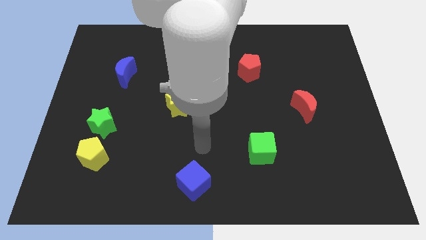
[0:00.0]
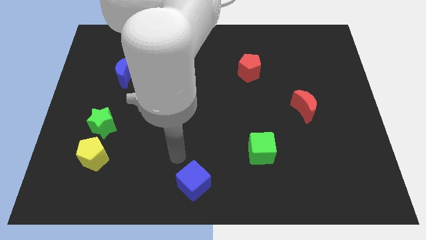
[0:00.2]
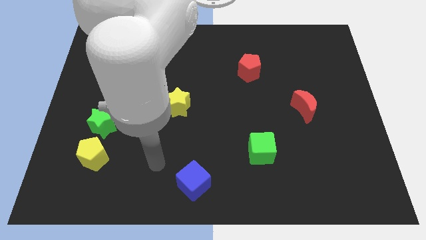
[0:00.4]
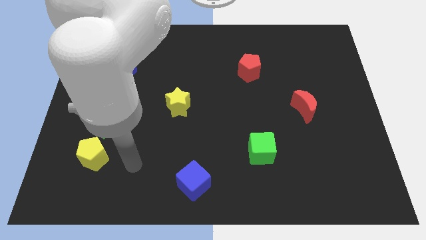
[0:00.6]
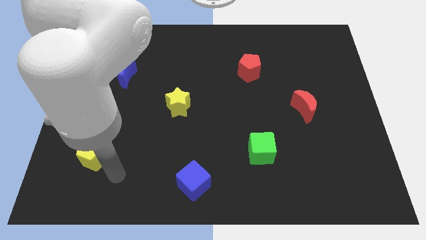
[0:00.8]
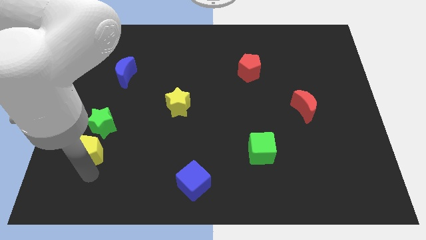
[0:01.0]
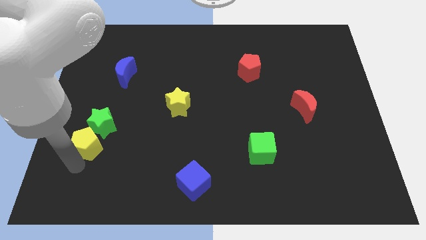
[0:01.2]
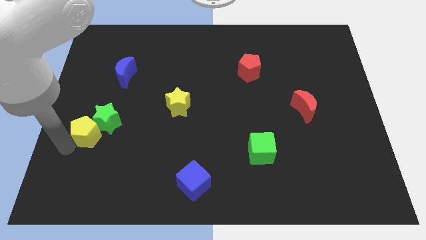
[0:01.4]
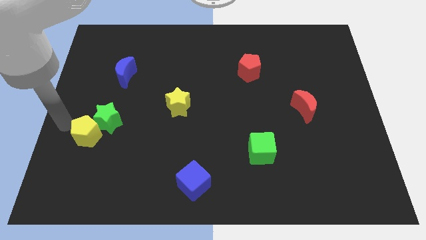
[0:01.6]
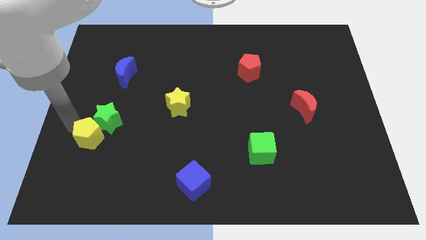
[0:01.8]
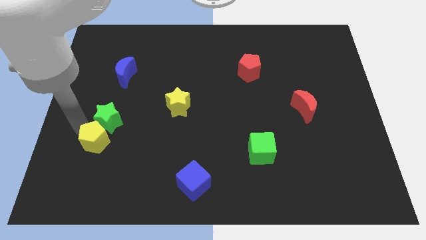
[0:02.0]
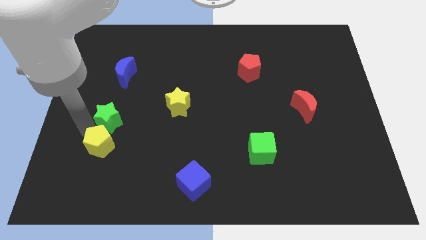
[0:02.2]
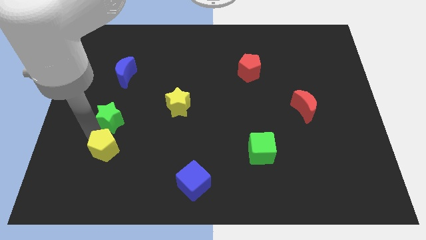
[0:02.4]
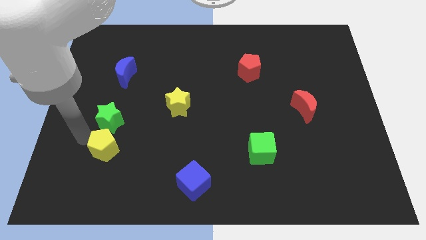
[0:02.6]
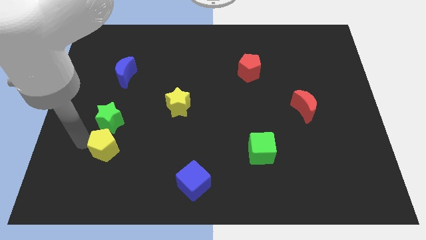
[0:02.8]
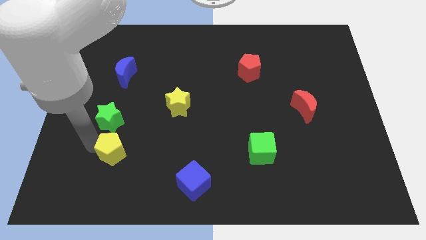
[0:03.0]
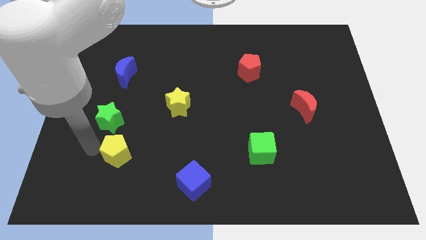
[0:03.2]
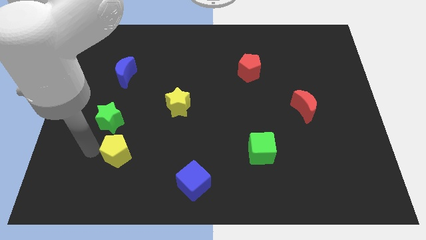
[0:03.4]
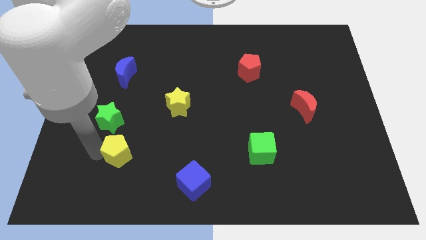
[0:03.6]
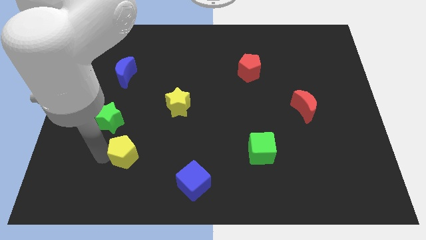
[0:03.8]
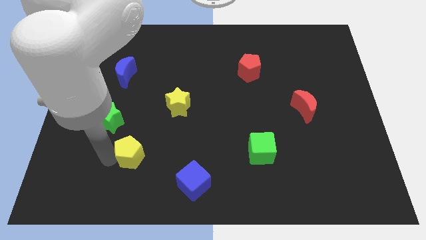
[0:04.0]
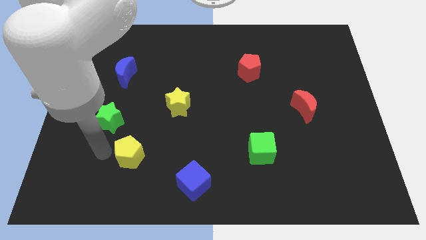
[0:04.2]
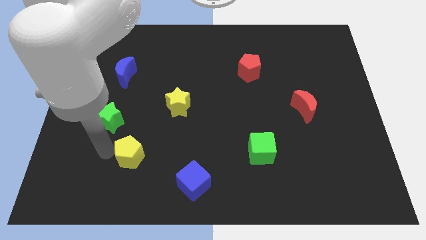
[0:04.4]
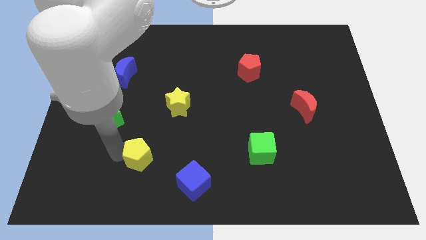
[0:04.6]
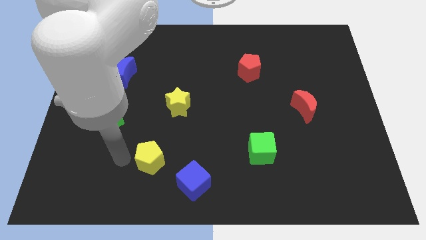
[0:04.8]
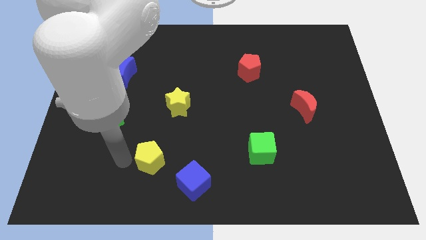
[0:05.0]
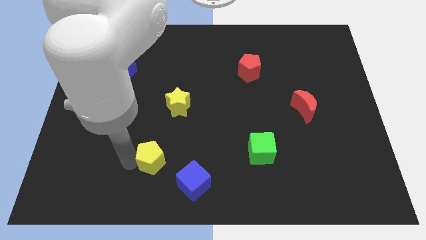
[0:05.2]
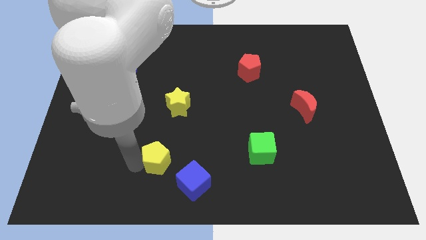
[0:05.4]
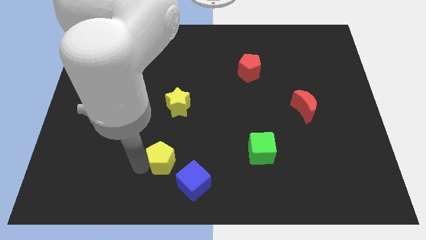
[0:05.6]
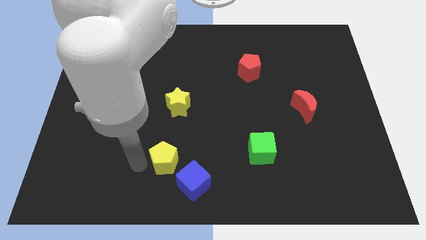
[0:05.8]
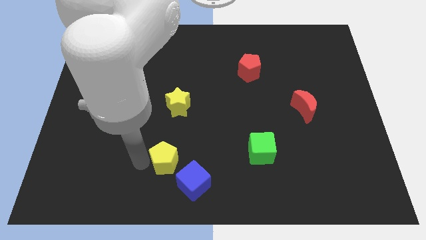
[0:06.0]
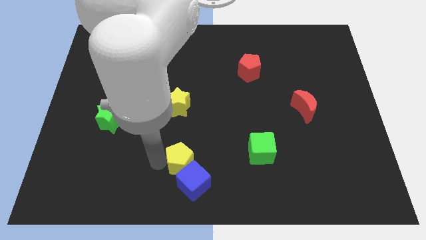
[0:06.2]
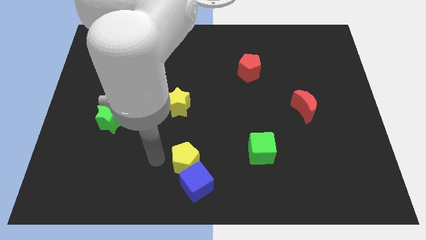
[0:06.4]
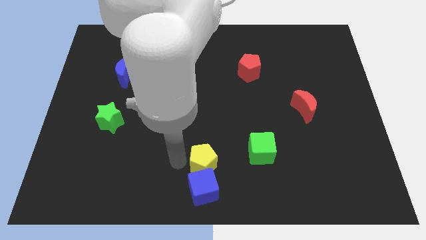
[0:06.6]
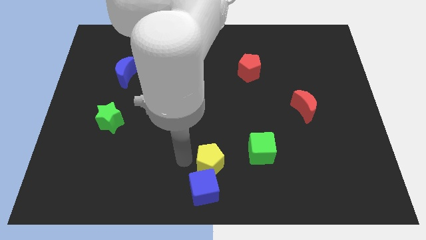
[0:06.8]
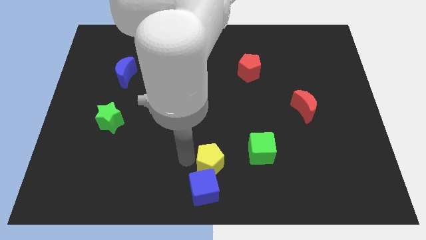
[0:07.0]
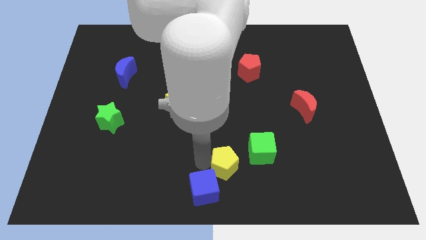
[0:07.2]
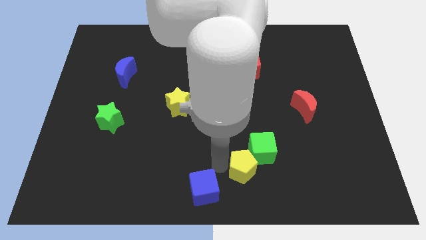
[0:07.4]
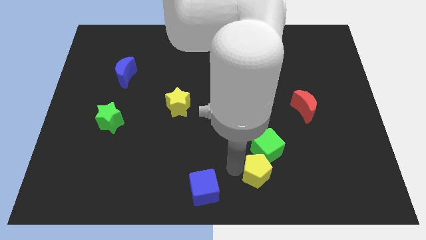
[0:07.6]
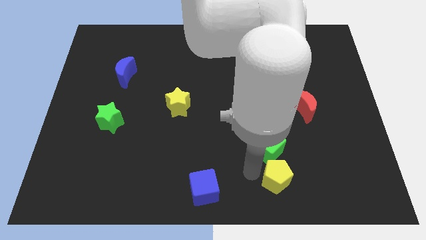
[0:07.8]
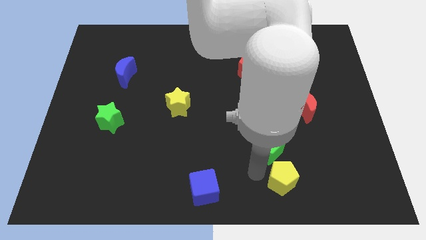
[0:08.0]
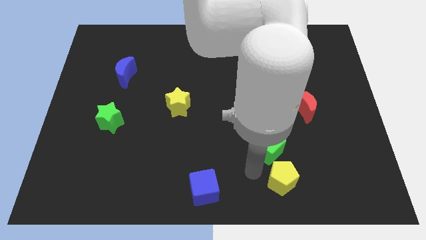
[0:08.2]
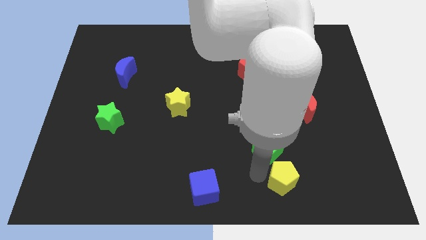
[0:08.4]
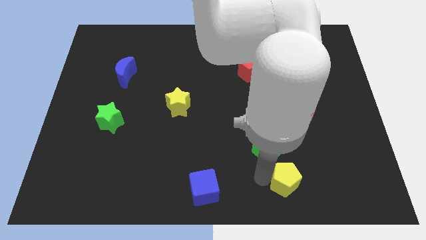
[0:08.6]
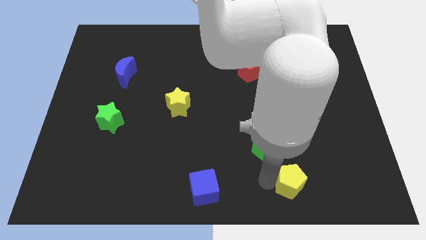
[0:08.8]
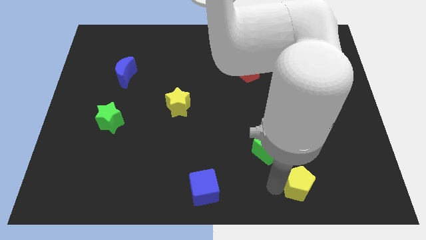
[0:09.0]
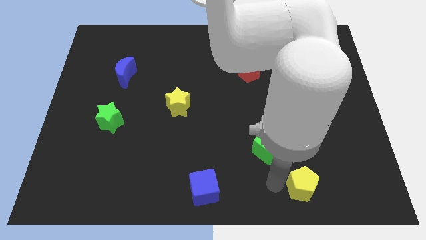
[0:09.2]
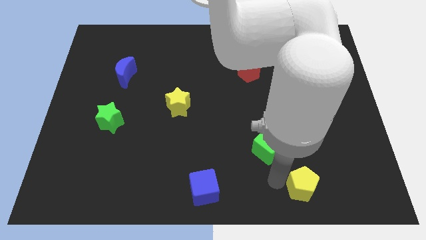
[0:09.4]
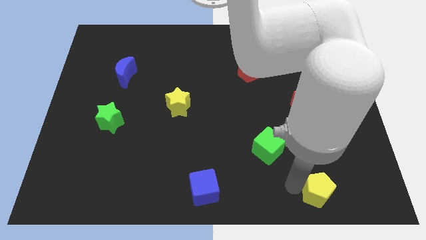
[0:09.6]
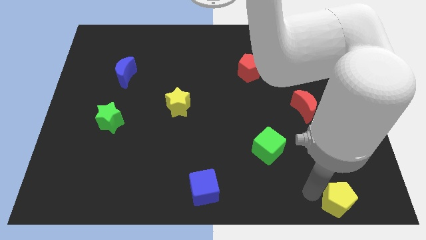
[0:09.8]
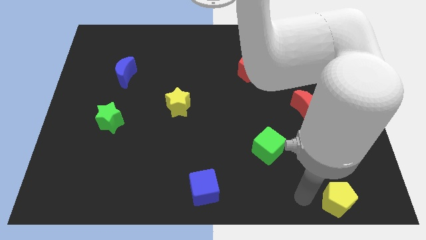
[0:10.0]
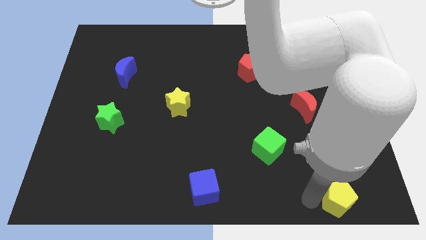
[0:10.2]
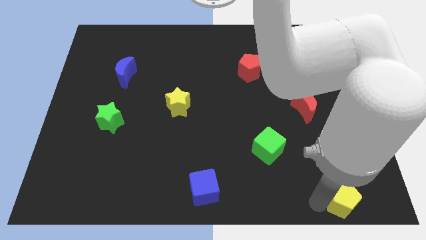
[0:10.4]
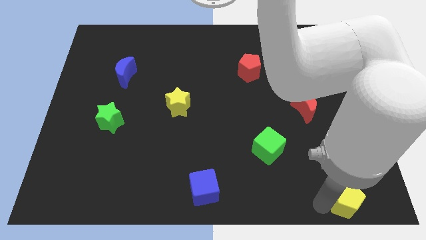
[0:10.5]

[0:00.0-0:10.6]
push the yellow pentagon to the bottom right

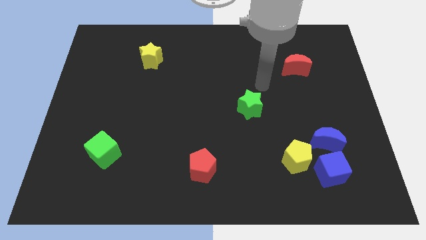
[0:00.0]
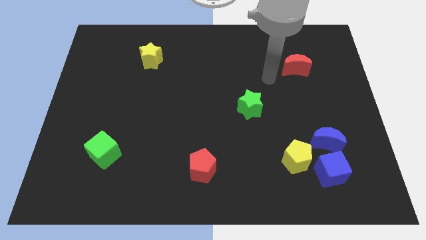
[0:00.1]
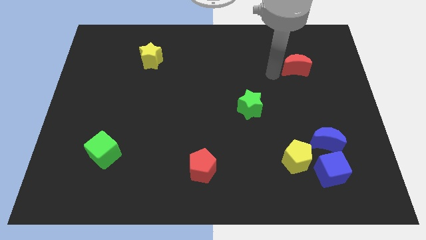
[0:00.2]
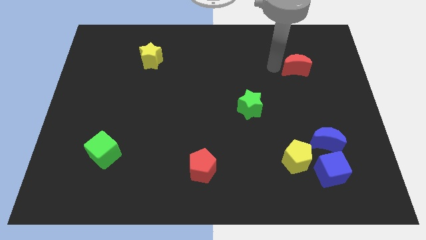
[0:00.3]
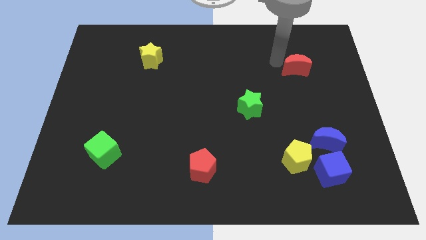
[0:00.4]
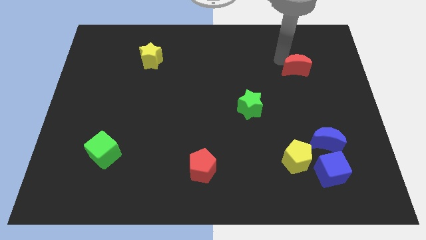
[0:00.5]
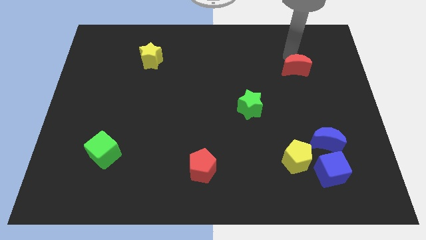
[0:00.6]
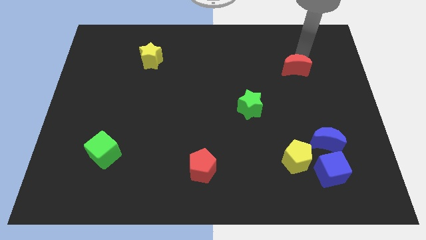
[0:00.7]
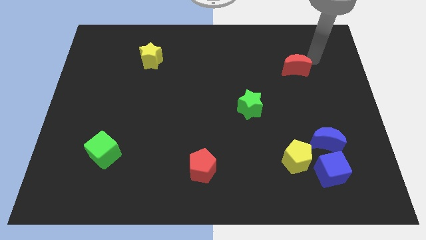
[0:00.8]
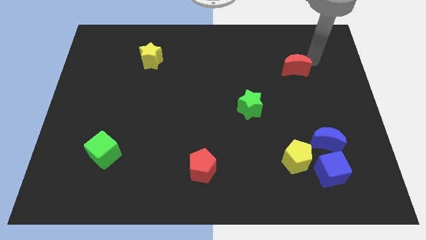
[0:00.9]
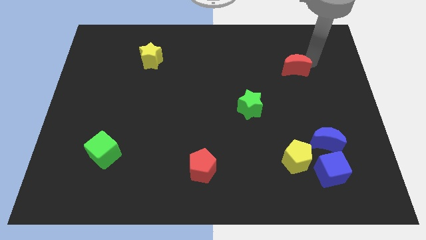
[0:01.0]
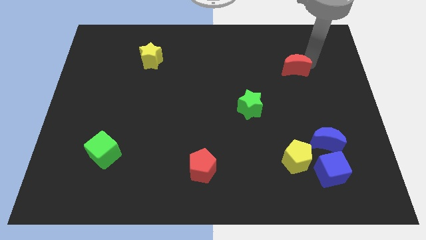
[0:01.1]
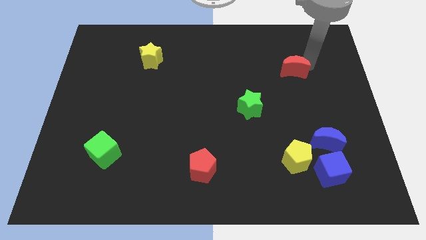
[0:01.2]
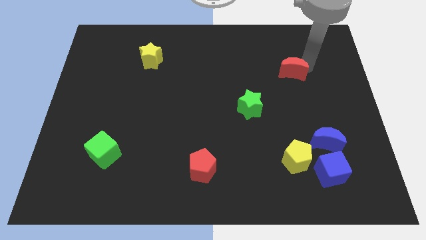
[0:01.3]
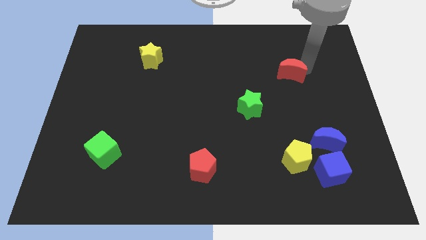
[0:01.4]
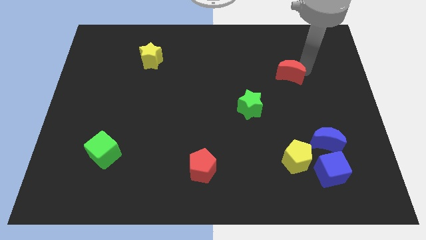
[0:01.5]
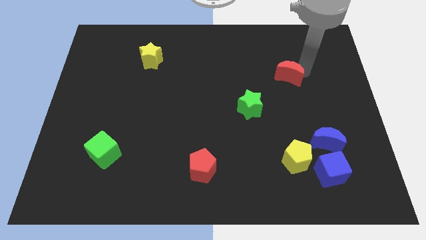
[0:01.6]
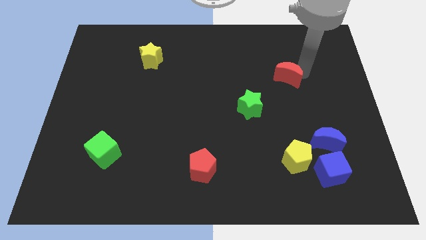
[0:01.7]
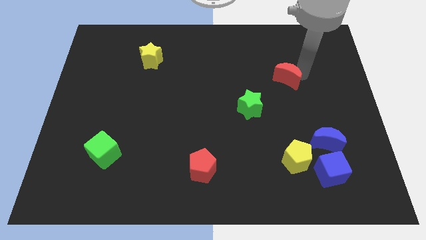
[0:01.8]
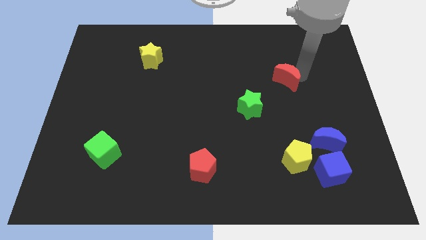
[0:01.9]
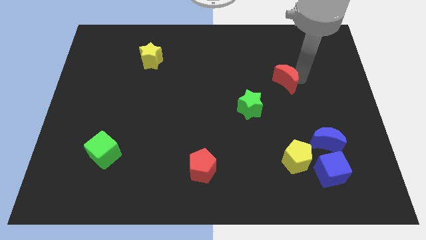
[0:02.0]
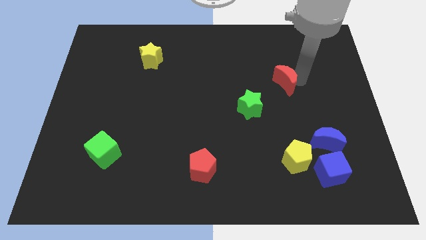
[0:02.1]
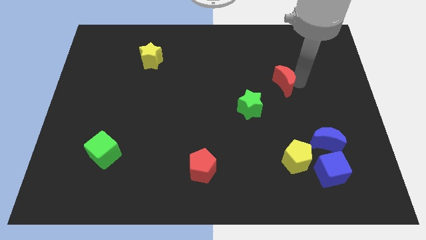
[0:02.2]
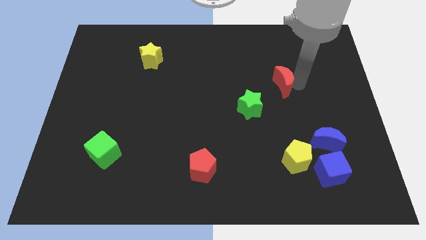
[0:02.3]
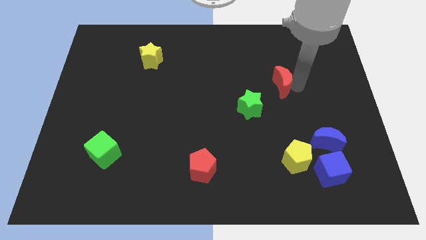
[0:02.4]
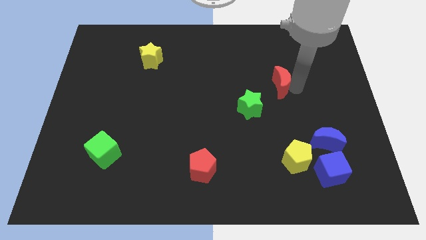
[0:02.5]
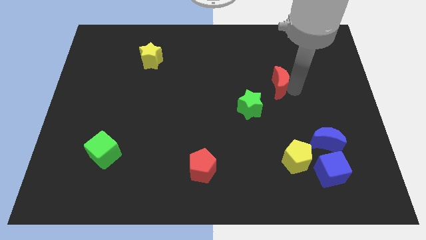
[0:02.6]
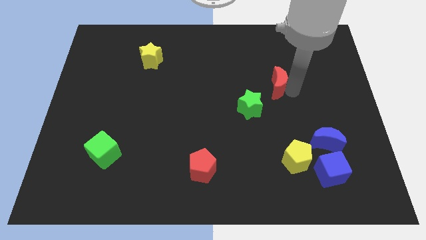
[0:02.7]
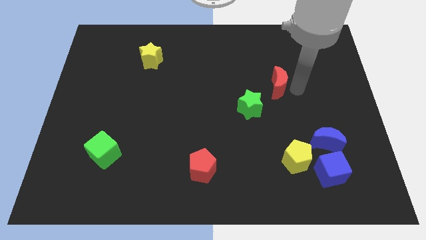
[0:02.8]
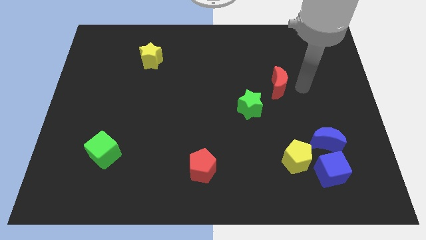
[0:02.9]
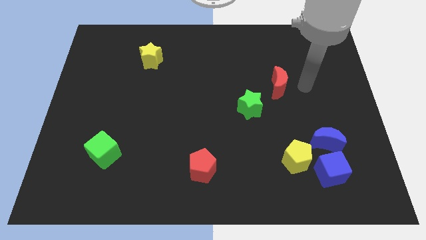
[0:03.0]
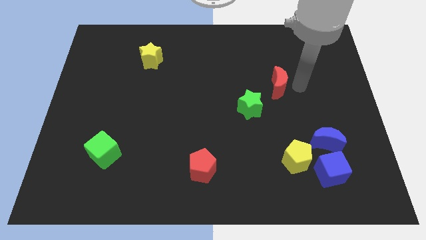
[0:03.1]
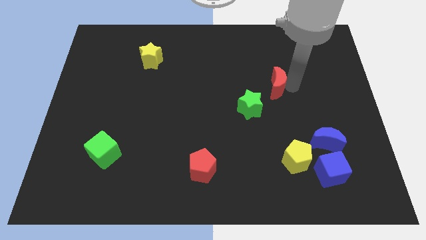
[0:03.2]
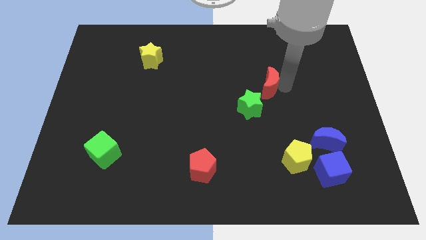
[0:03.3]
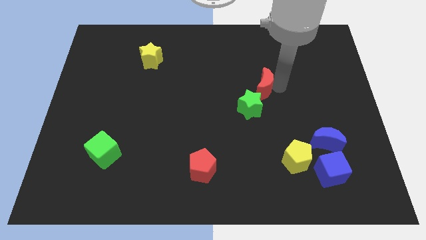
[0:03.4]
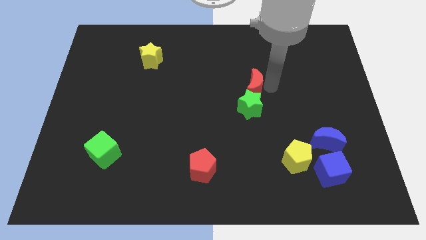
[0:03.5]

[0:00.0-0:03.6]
move the red moon to the center
